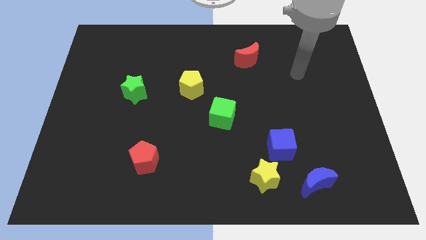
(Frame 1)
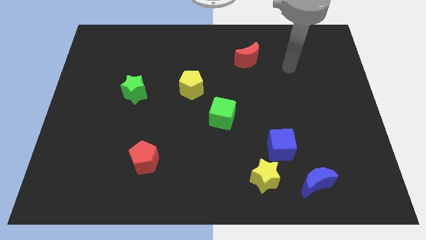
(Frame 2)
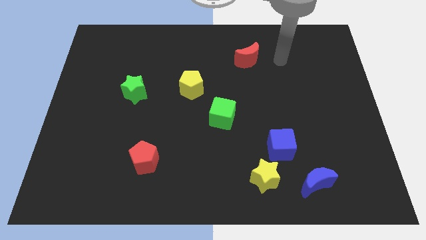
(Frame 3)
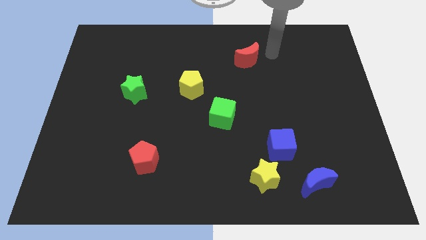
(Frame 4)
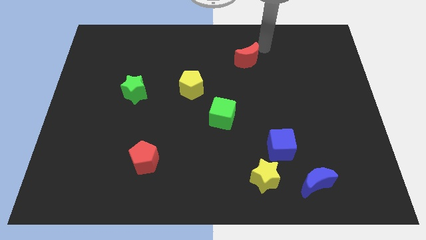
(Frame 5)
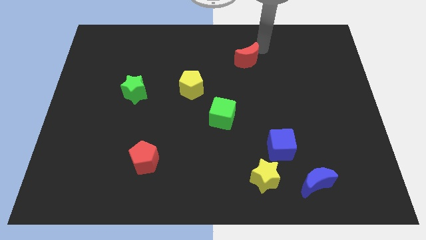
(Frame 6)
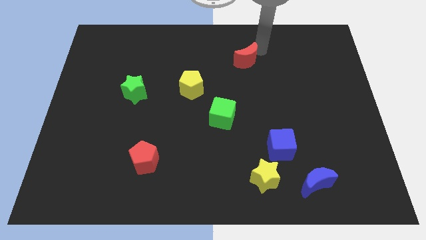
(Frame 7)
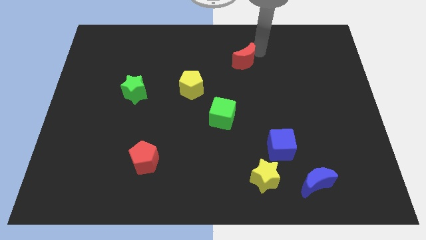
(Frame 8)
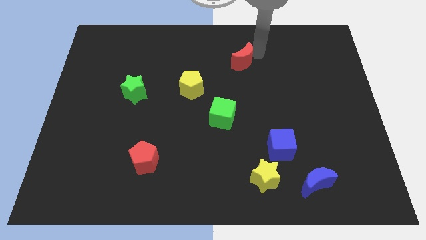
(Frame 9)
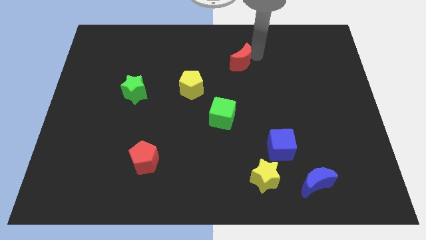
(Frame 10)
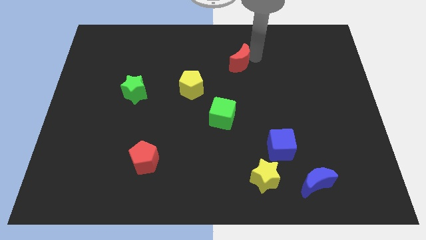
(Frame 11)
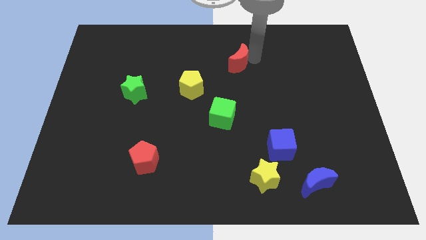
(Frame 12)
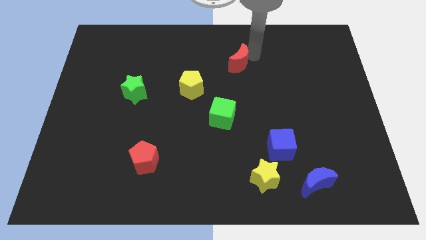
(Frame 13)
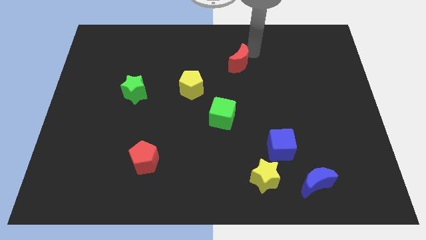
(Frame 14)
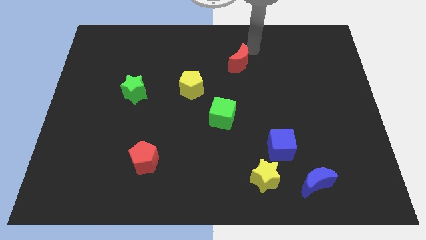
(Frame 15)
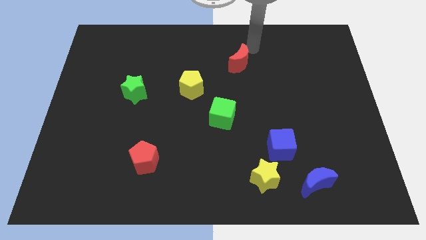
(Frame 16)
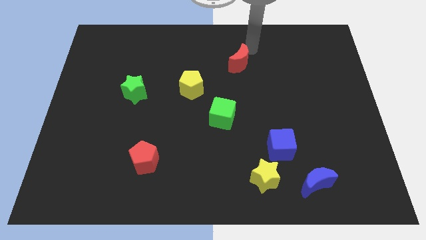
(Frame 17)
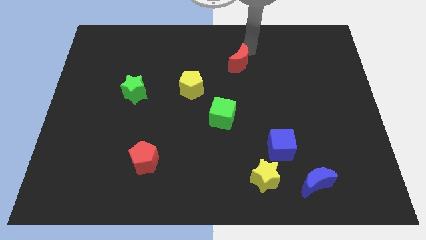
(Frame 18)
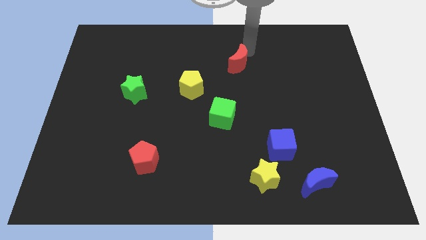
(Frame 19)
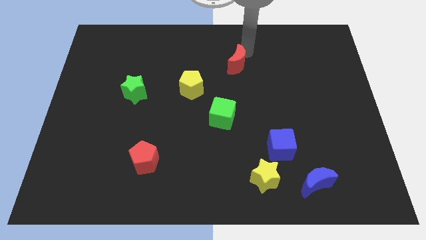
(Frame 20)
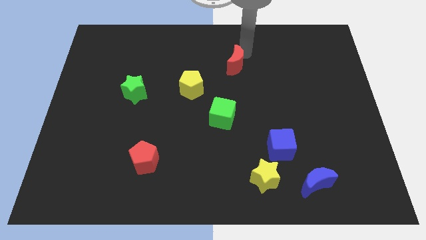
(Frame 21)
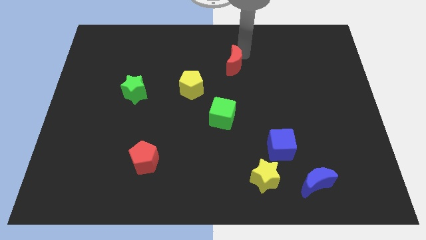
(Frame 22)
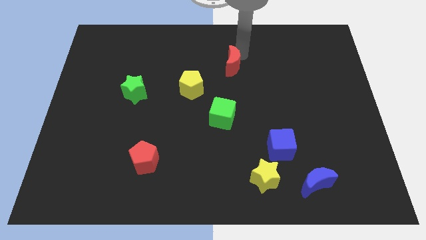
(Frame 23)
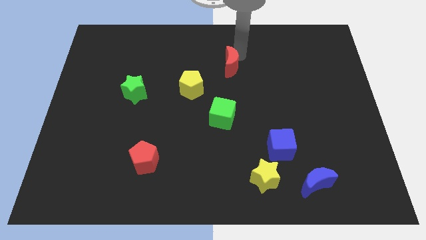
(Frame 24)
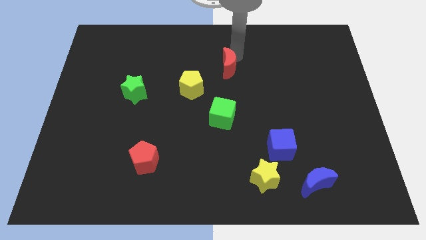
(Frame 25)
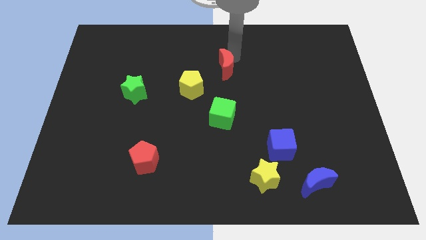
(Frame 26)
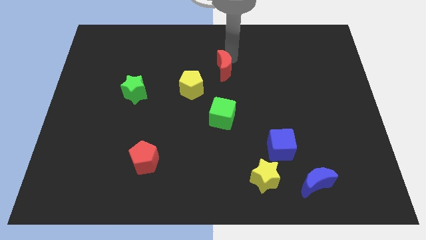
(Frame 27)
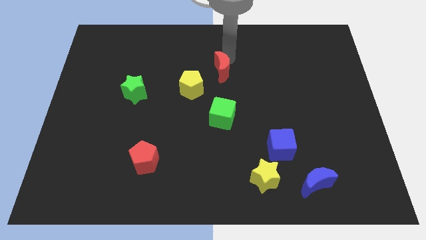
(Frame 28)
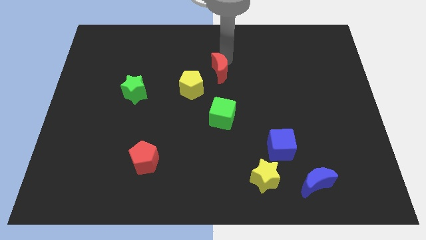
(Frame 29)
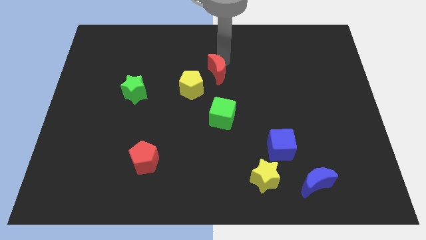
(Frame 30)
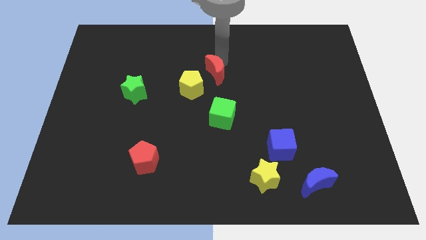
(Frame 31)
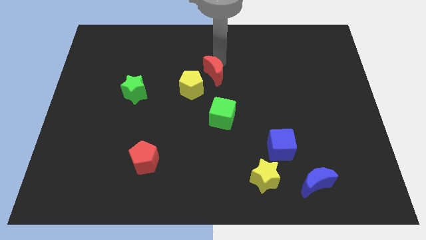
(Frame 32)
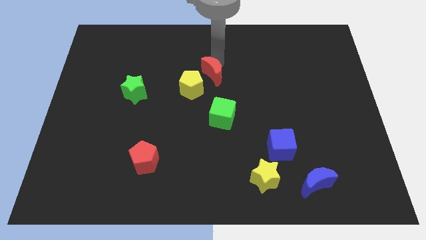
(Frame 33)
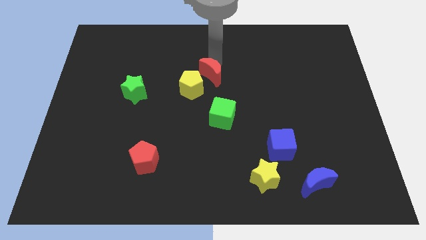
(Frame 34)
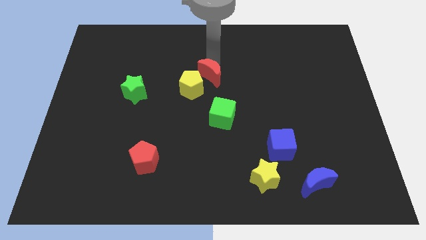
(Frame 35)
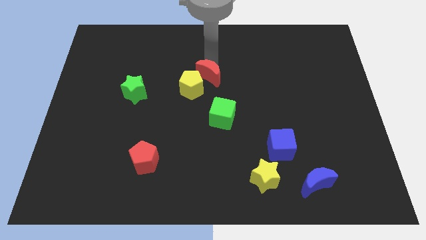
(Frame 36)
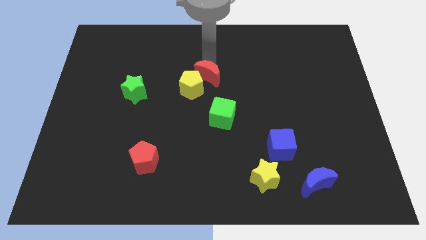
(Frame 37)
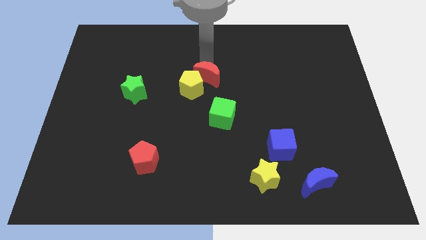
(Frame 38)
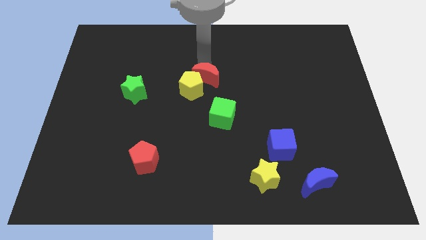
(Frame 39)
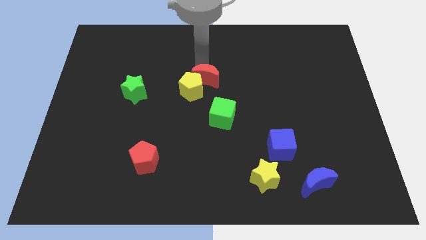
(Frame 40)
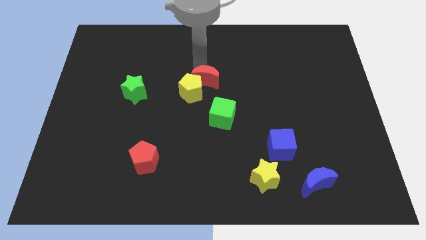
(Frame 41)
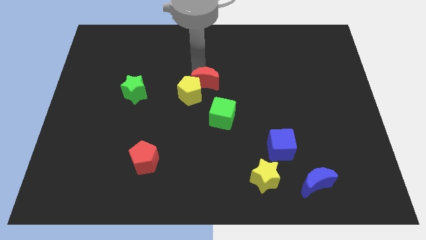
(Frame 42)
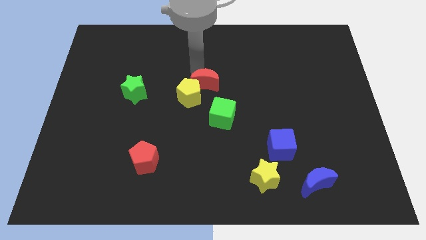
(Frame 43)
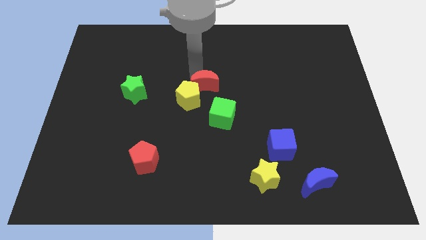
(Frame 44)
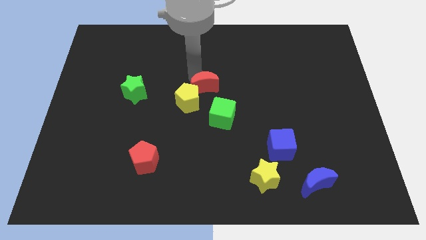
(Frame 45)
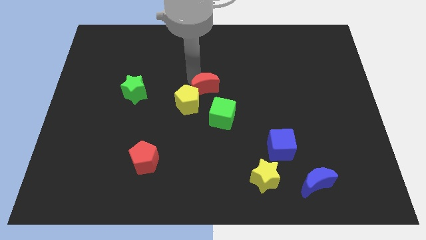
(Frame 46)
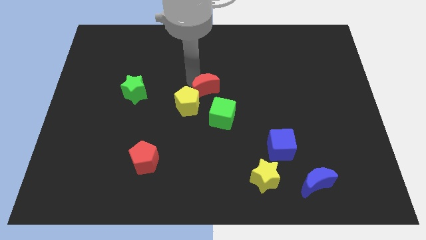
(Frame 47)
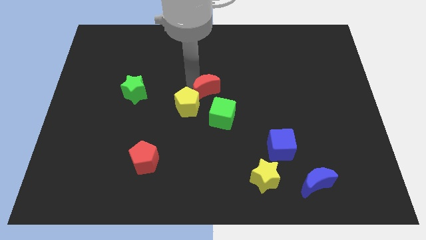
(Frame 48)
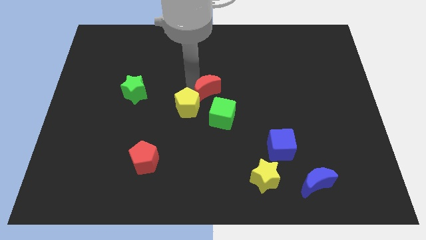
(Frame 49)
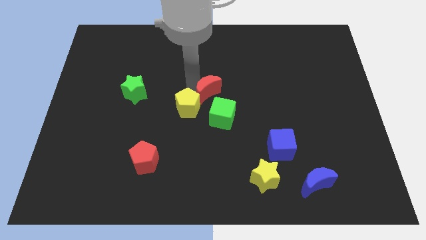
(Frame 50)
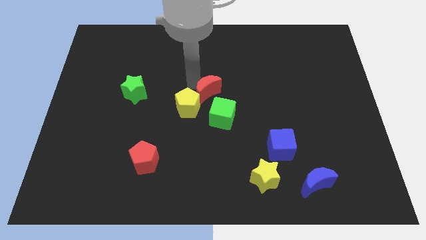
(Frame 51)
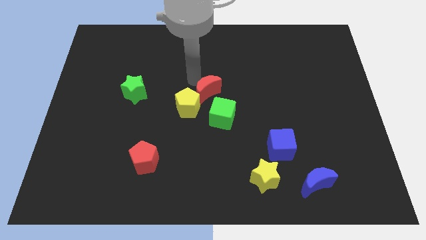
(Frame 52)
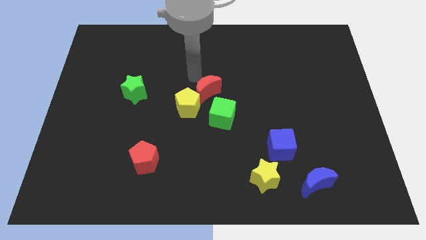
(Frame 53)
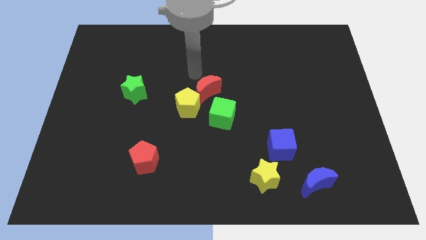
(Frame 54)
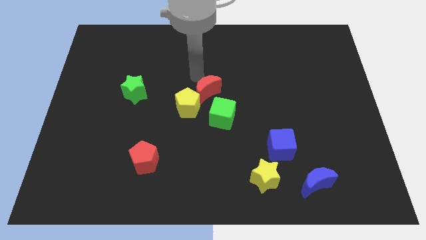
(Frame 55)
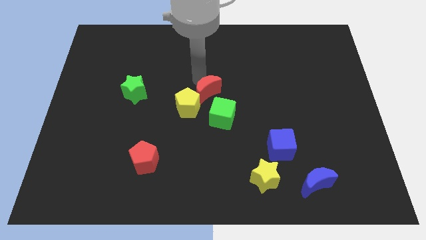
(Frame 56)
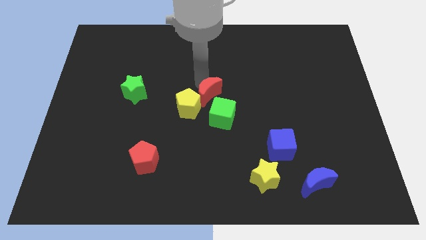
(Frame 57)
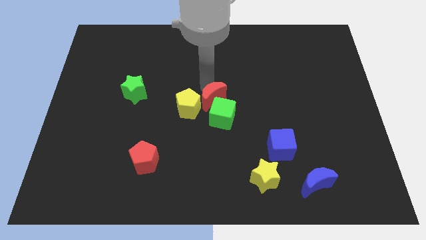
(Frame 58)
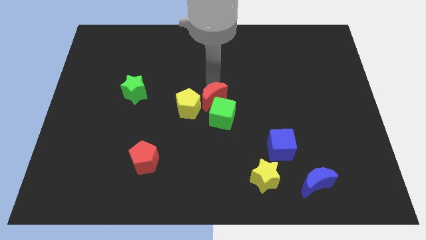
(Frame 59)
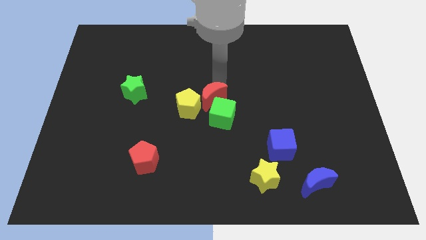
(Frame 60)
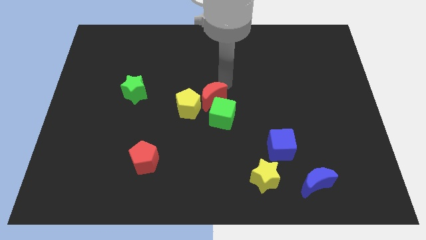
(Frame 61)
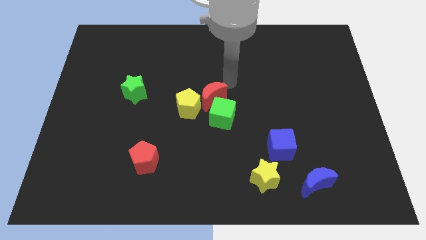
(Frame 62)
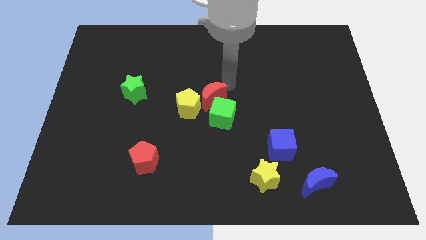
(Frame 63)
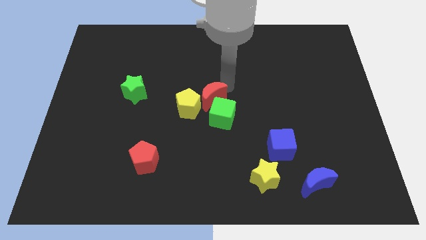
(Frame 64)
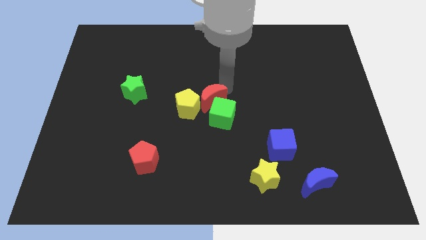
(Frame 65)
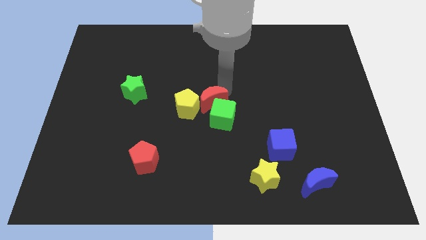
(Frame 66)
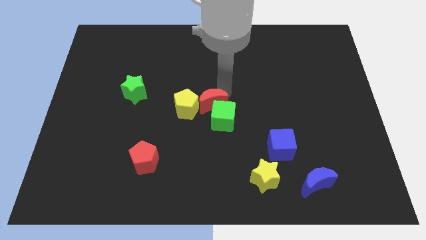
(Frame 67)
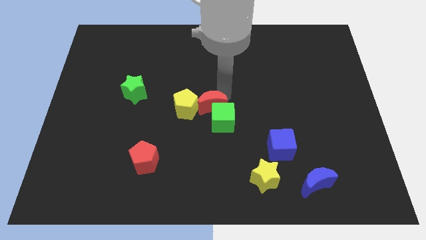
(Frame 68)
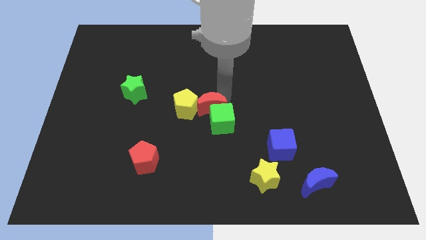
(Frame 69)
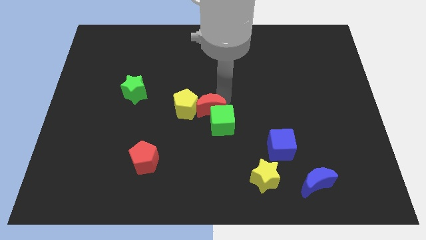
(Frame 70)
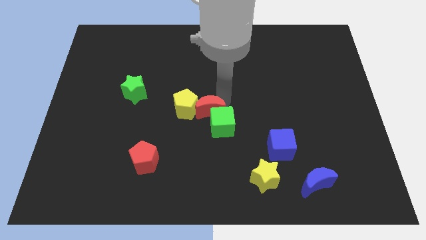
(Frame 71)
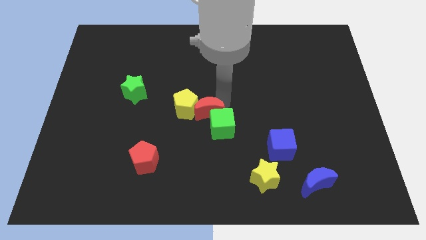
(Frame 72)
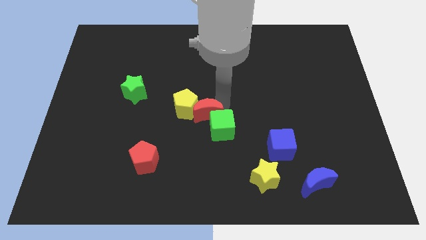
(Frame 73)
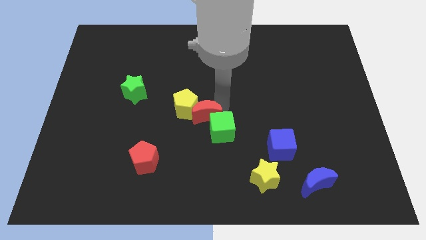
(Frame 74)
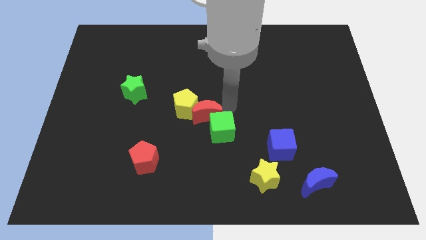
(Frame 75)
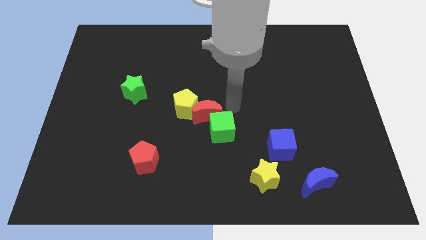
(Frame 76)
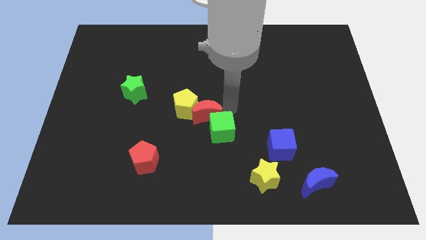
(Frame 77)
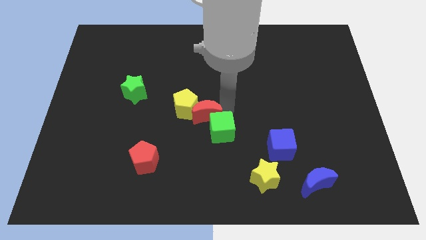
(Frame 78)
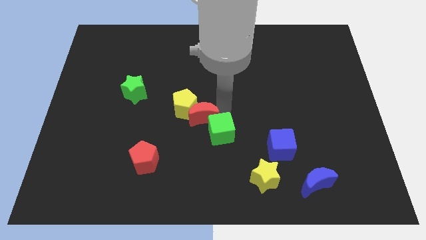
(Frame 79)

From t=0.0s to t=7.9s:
slide the red moon downwards and left diagonally

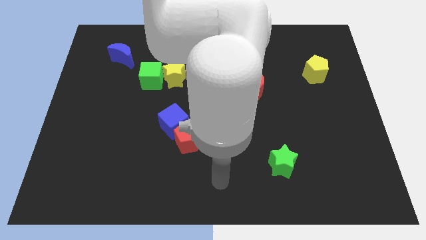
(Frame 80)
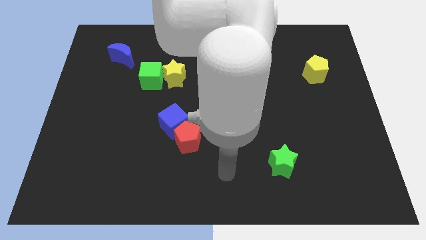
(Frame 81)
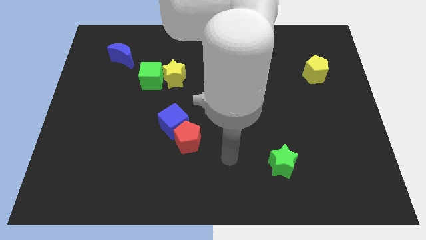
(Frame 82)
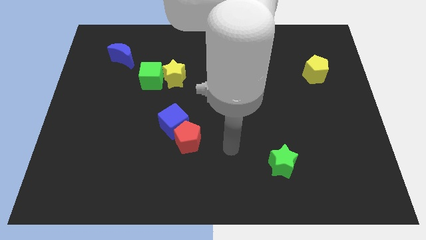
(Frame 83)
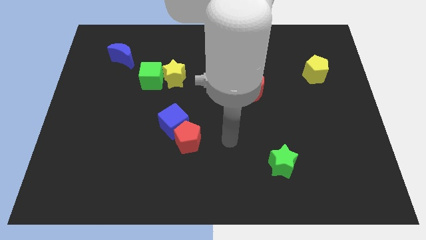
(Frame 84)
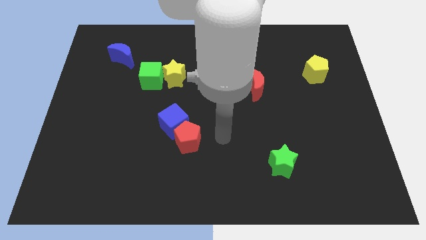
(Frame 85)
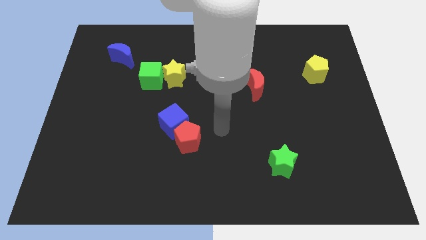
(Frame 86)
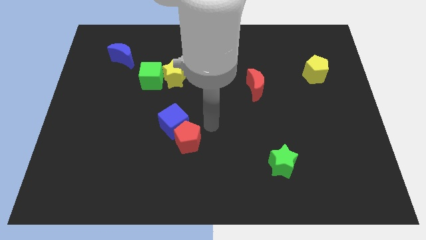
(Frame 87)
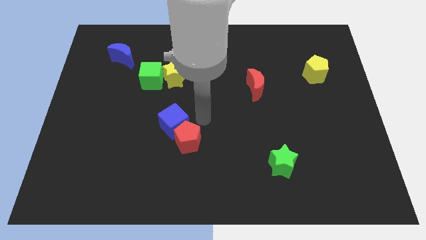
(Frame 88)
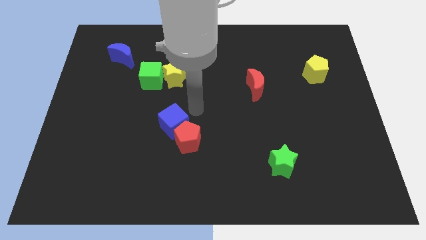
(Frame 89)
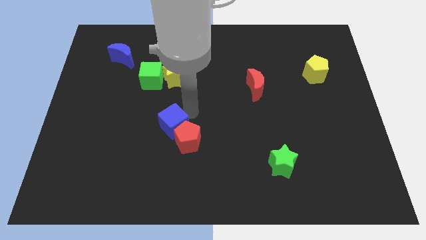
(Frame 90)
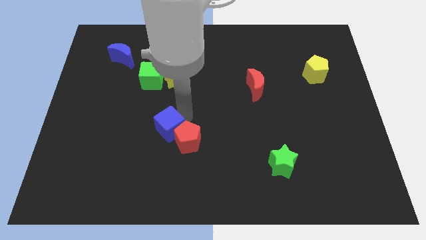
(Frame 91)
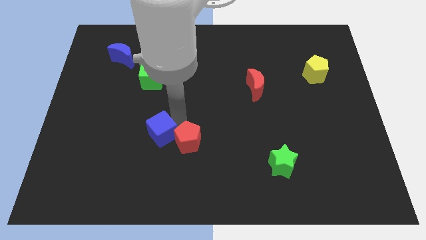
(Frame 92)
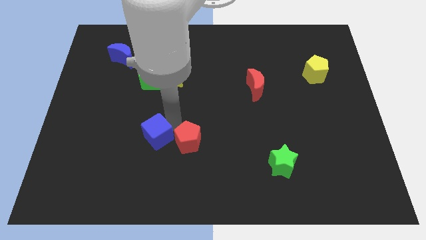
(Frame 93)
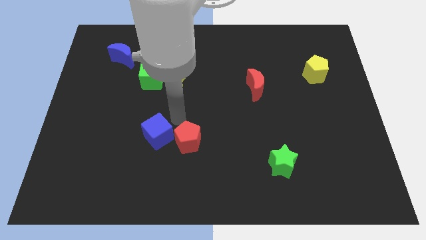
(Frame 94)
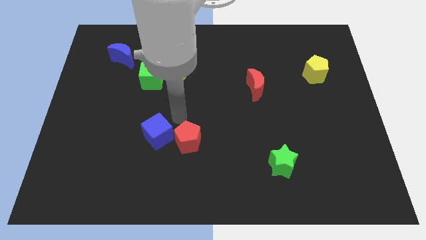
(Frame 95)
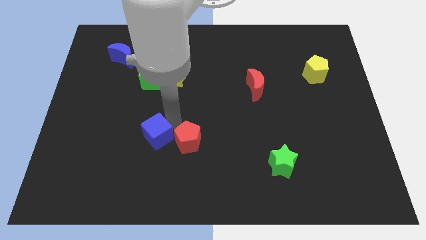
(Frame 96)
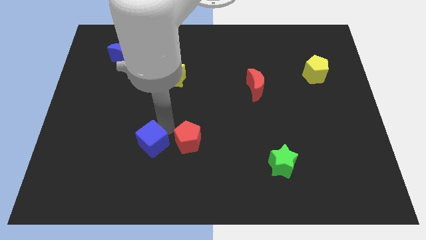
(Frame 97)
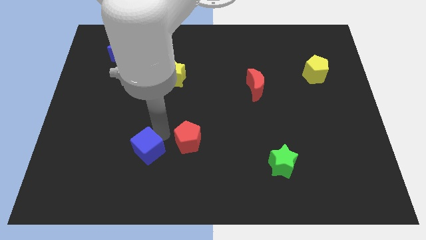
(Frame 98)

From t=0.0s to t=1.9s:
slightly push the blue cube down and then left
